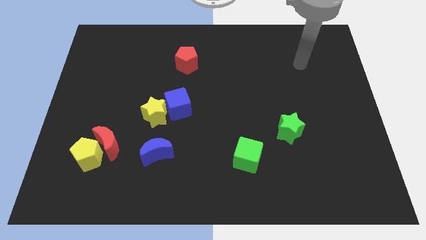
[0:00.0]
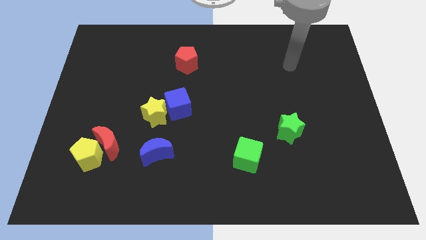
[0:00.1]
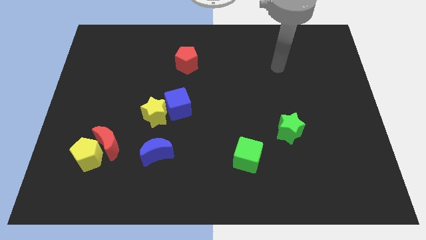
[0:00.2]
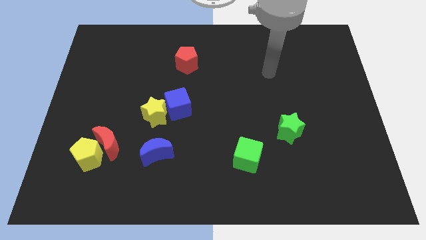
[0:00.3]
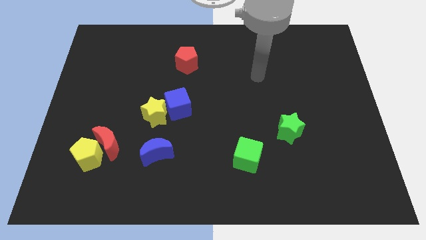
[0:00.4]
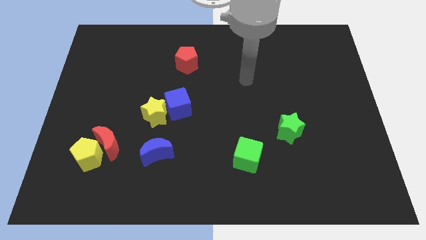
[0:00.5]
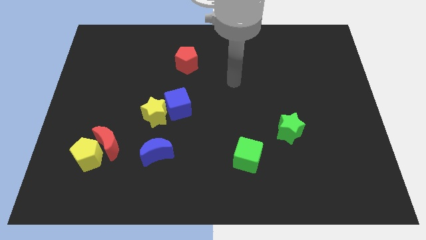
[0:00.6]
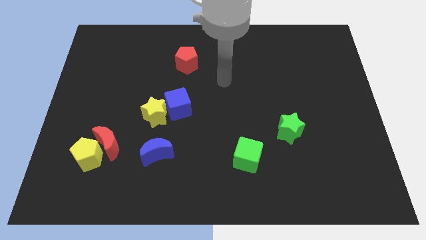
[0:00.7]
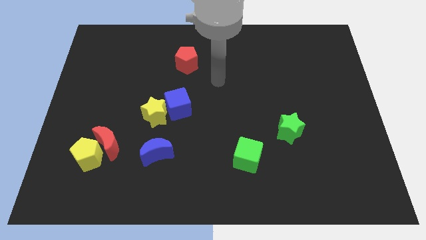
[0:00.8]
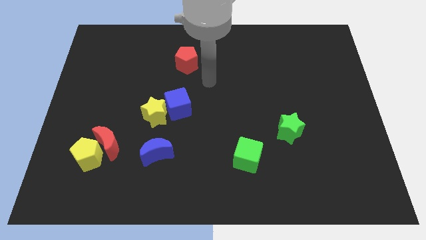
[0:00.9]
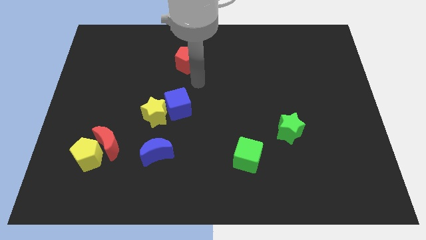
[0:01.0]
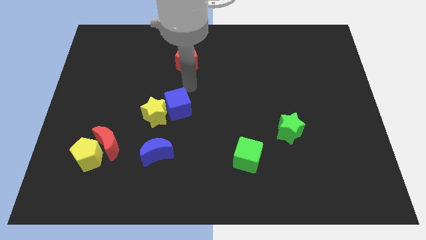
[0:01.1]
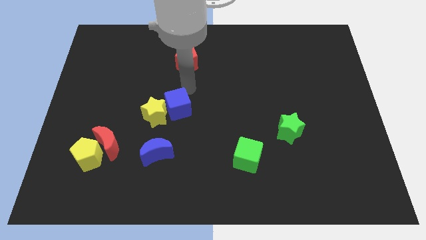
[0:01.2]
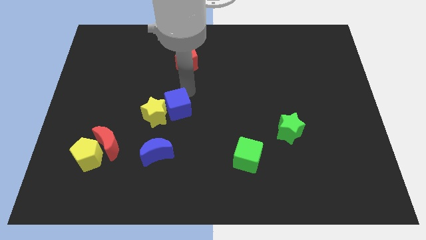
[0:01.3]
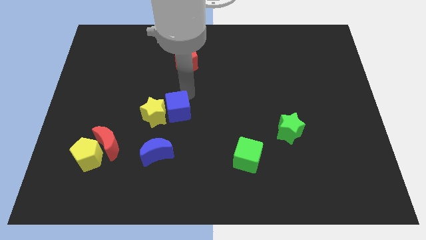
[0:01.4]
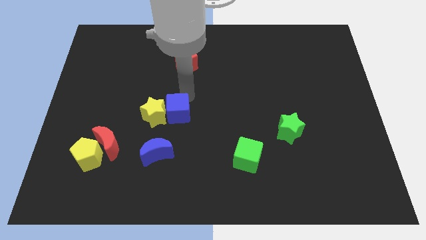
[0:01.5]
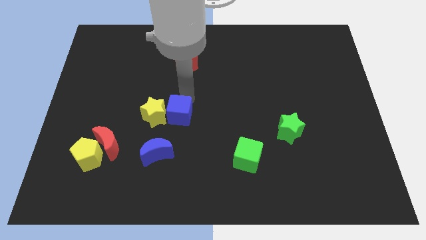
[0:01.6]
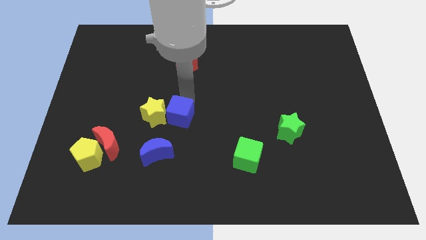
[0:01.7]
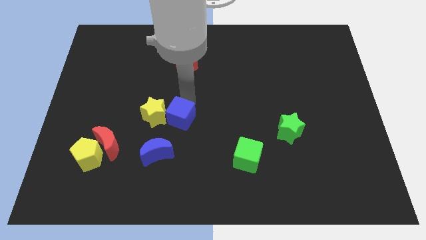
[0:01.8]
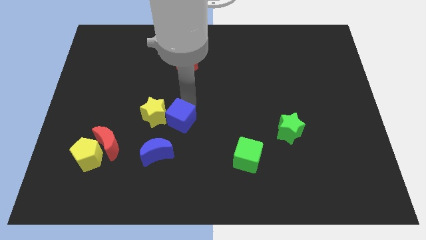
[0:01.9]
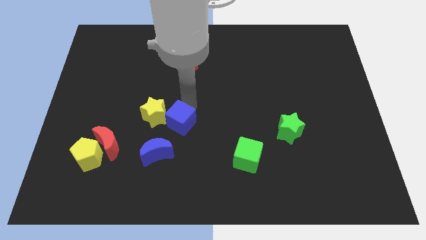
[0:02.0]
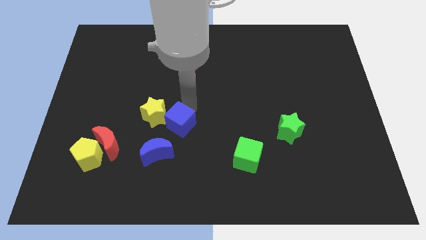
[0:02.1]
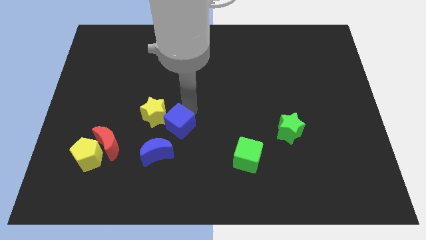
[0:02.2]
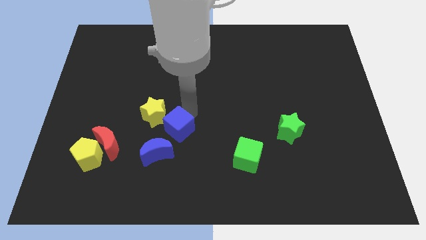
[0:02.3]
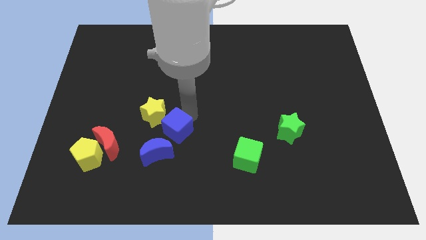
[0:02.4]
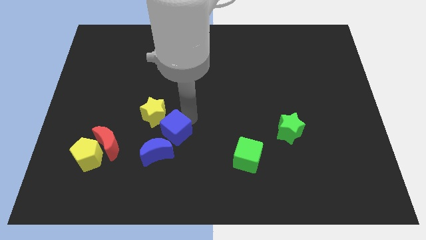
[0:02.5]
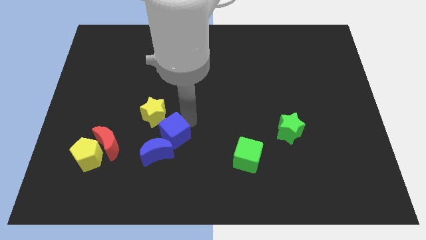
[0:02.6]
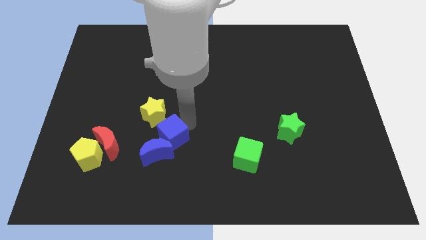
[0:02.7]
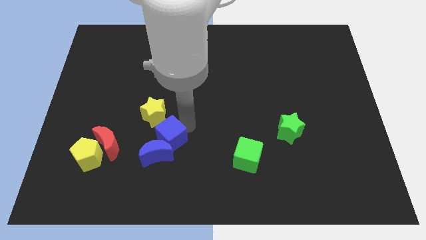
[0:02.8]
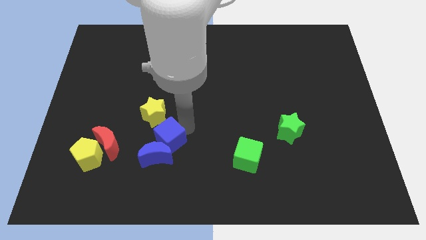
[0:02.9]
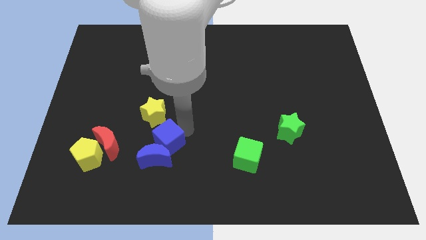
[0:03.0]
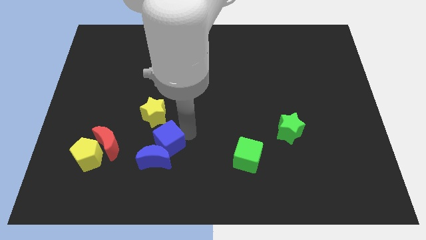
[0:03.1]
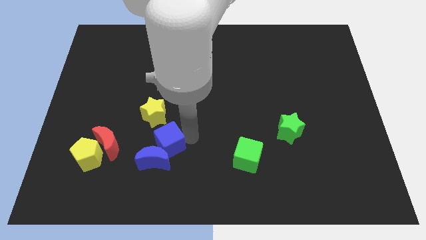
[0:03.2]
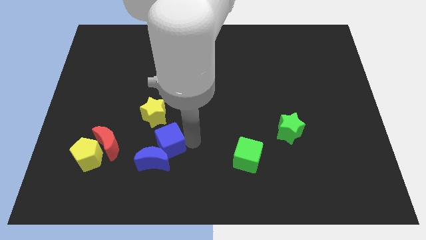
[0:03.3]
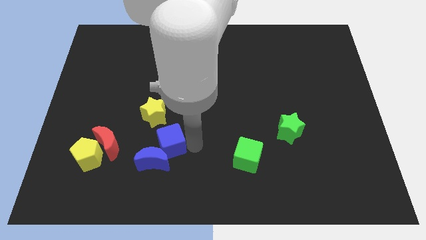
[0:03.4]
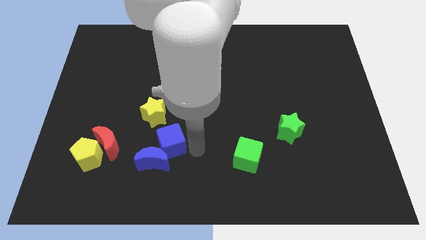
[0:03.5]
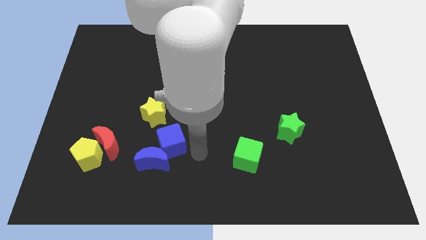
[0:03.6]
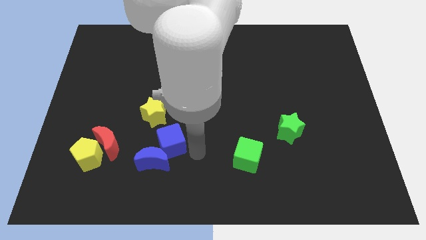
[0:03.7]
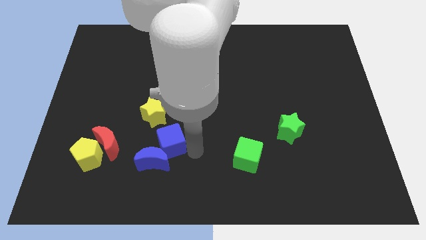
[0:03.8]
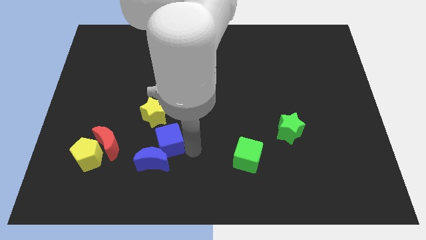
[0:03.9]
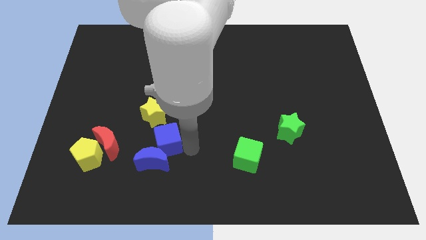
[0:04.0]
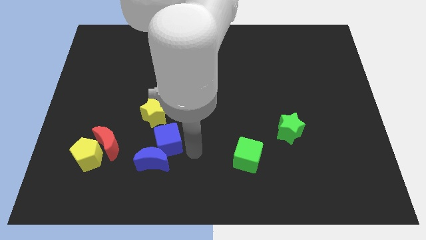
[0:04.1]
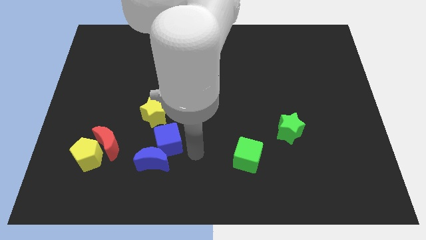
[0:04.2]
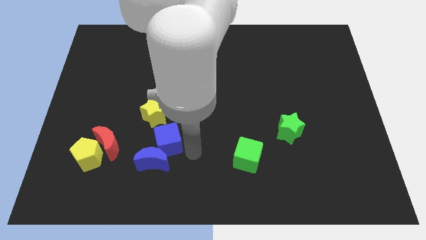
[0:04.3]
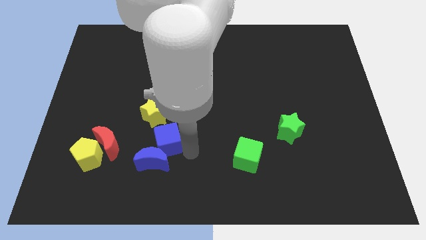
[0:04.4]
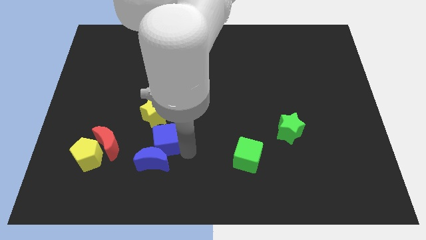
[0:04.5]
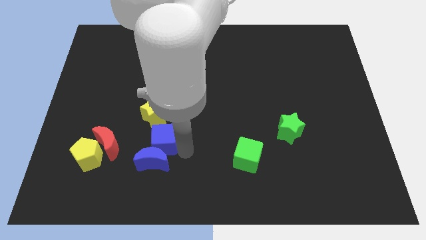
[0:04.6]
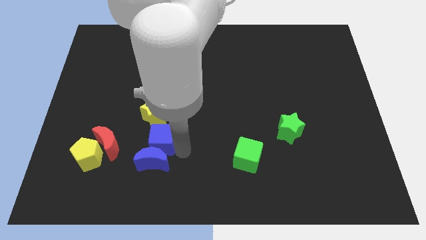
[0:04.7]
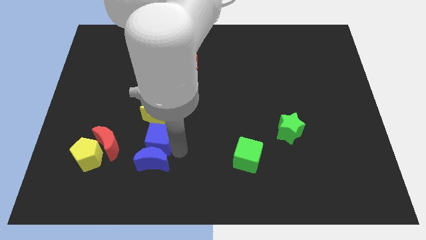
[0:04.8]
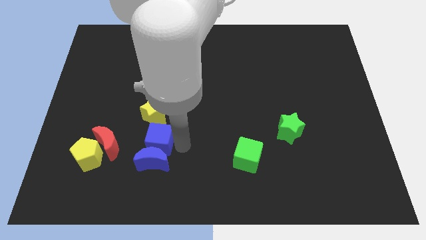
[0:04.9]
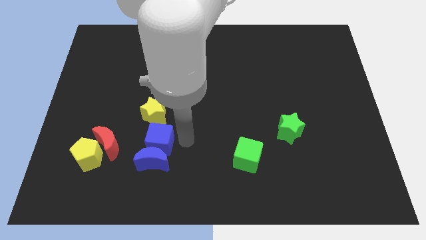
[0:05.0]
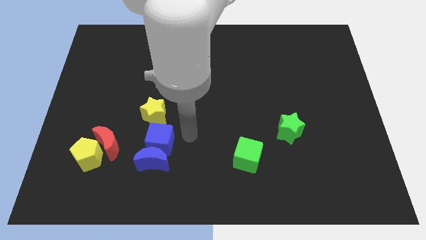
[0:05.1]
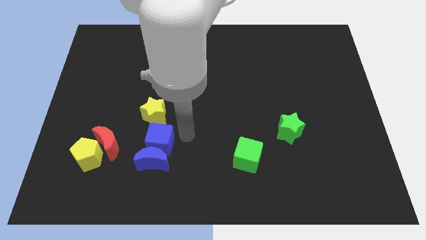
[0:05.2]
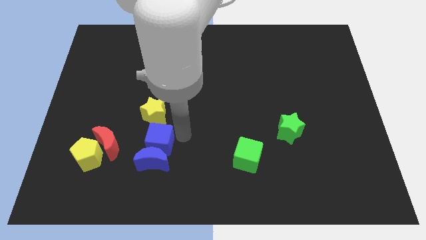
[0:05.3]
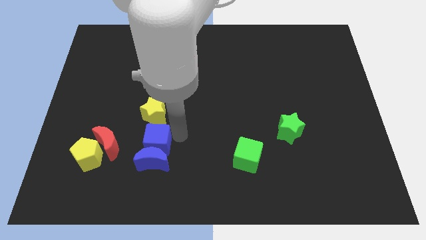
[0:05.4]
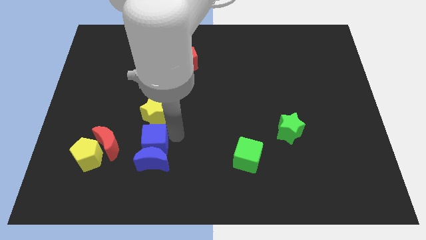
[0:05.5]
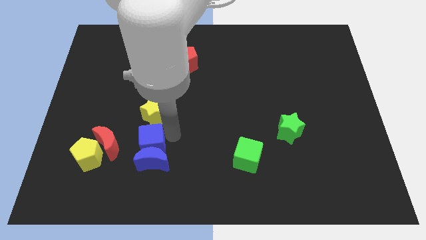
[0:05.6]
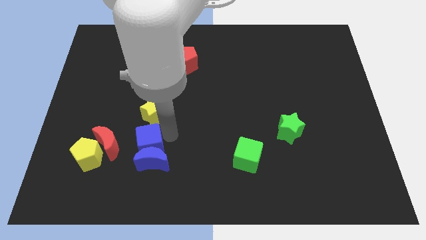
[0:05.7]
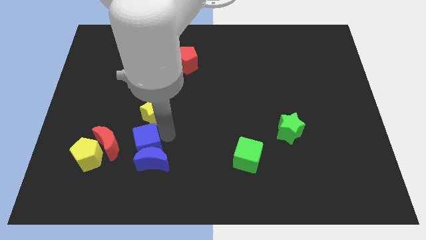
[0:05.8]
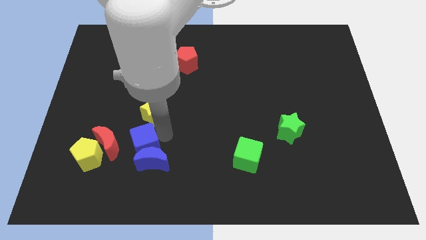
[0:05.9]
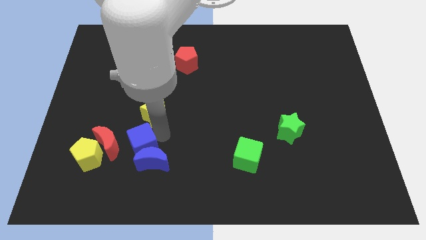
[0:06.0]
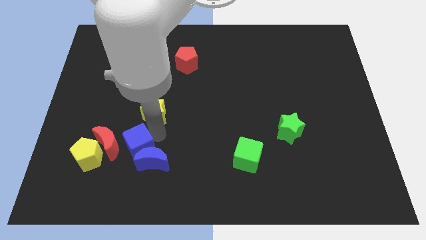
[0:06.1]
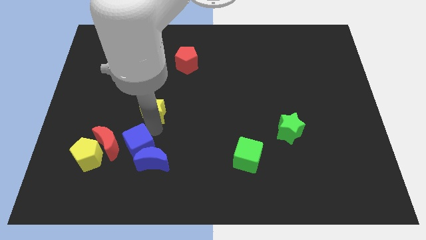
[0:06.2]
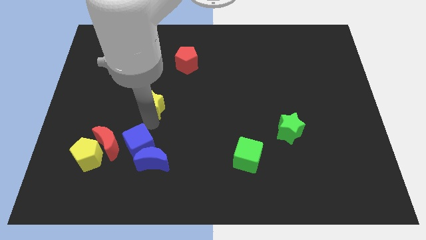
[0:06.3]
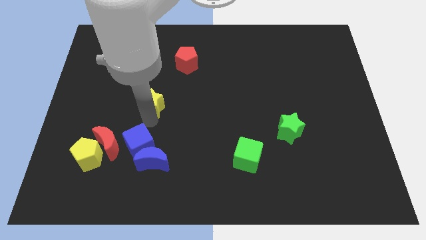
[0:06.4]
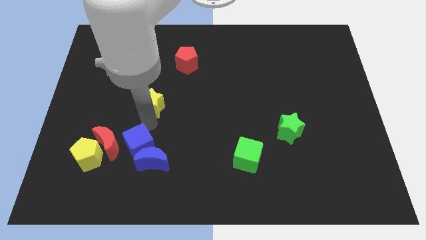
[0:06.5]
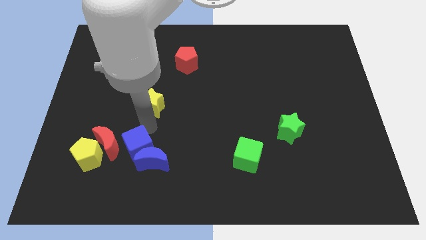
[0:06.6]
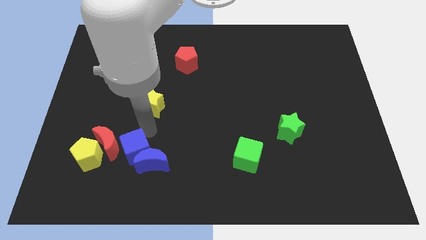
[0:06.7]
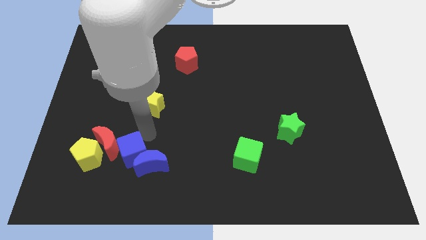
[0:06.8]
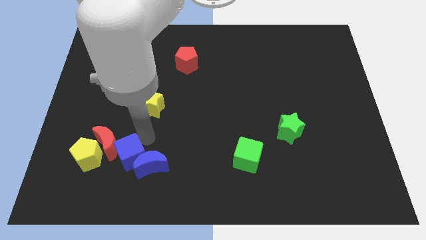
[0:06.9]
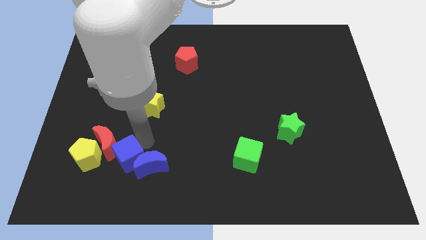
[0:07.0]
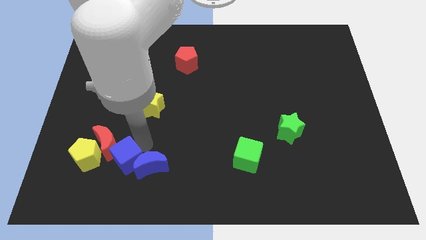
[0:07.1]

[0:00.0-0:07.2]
push the blue cube diagonally down and to the left of the blue moon
